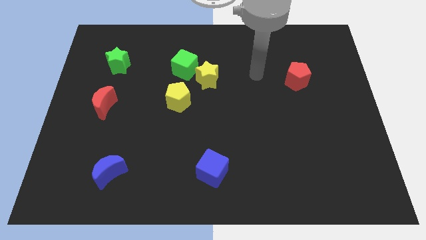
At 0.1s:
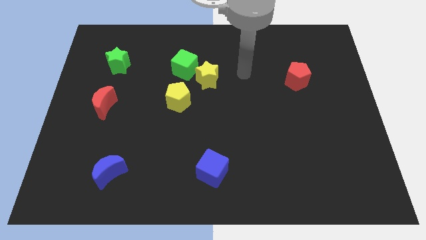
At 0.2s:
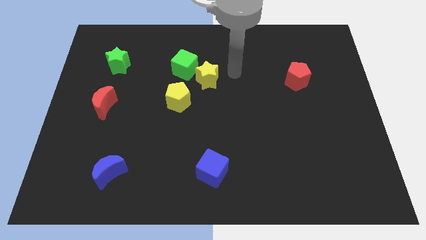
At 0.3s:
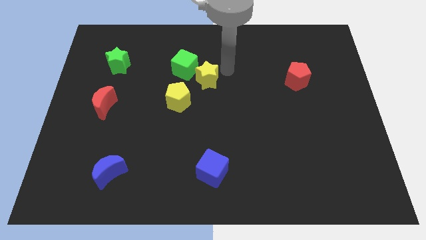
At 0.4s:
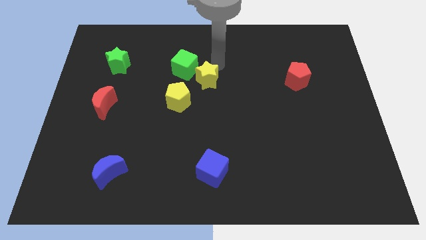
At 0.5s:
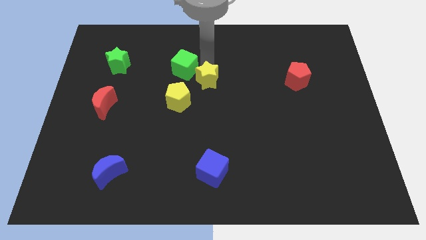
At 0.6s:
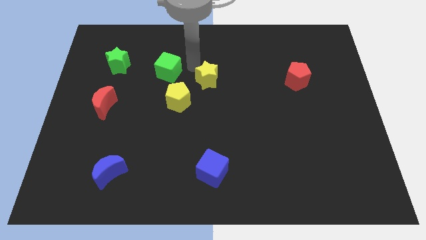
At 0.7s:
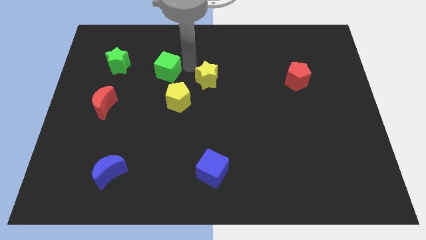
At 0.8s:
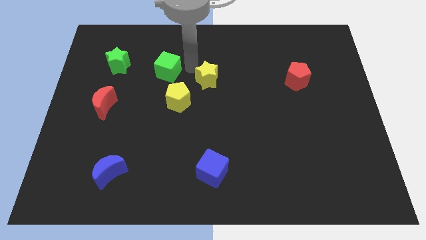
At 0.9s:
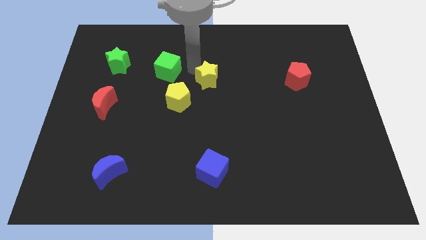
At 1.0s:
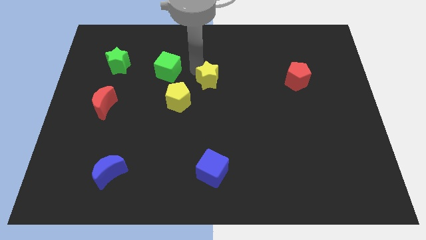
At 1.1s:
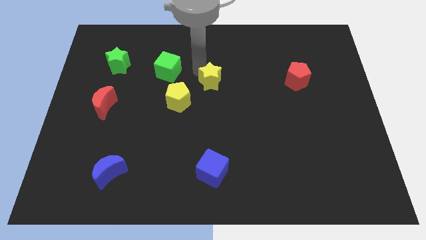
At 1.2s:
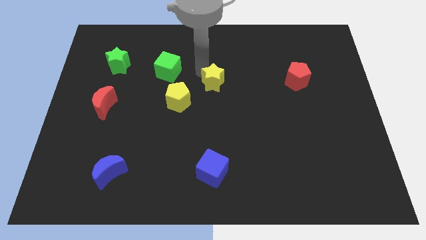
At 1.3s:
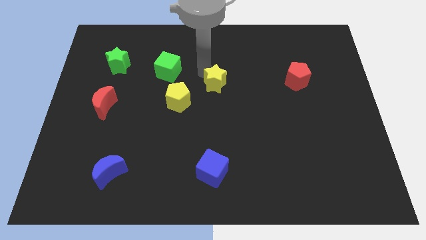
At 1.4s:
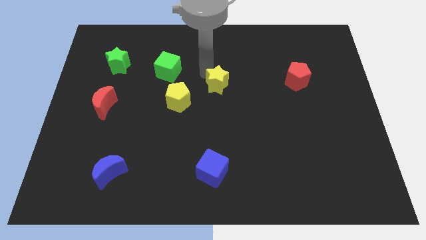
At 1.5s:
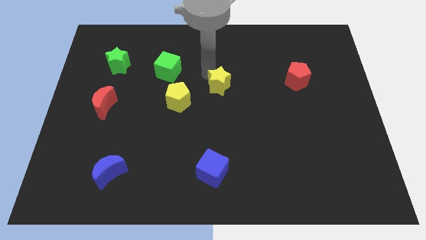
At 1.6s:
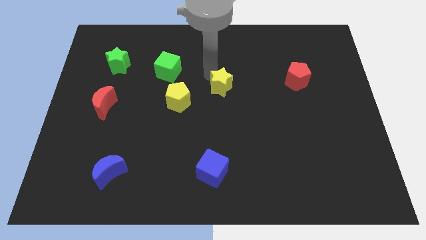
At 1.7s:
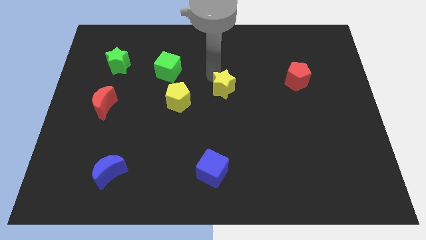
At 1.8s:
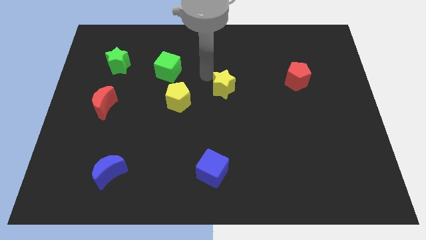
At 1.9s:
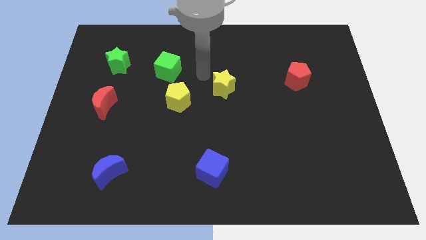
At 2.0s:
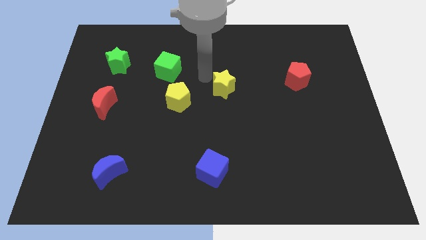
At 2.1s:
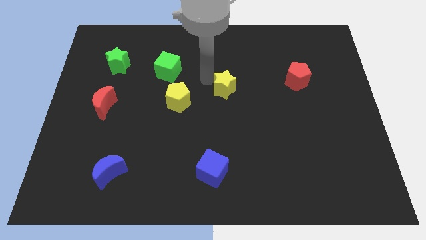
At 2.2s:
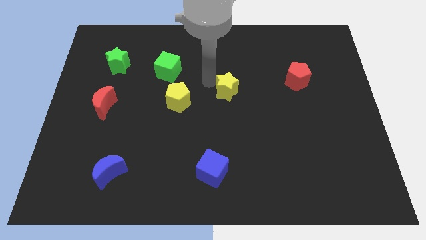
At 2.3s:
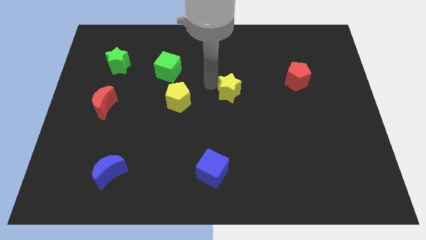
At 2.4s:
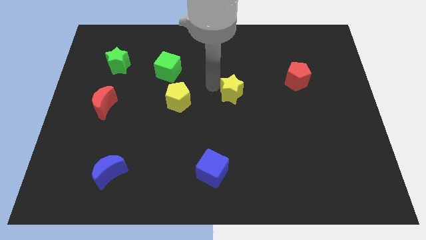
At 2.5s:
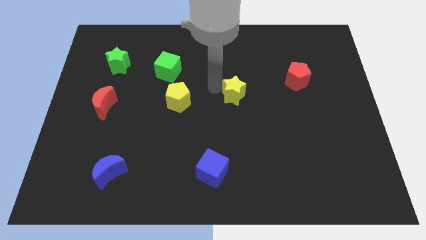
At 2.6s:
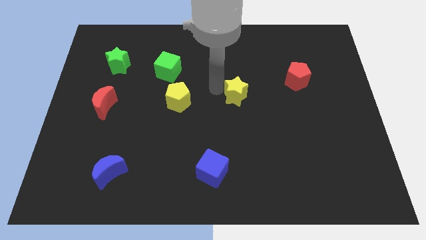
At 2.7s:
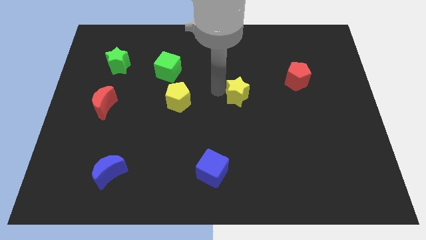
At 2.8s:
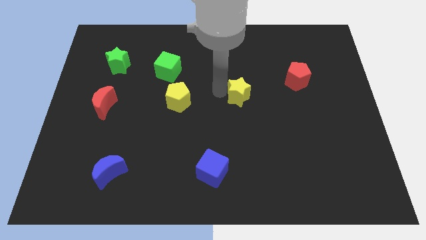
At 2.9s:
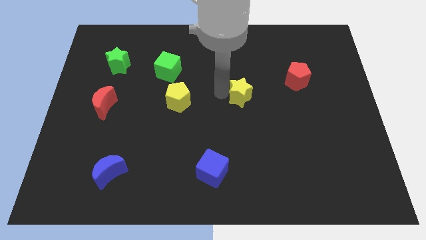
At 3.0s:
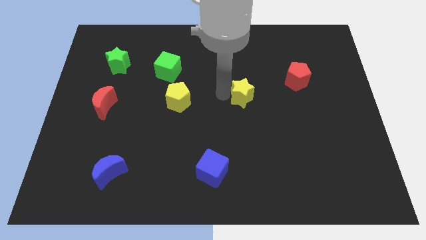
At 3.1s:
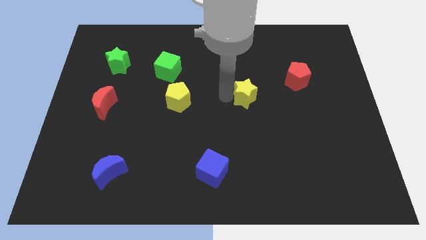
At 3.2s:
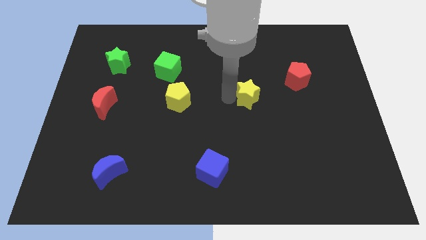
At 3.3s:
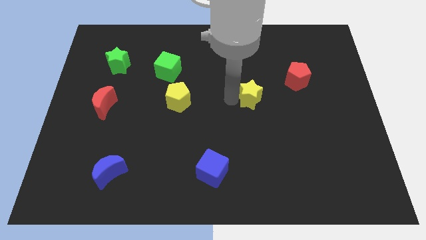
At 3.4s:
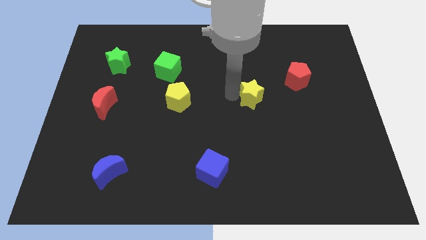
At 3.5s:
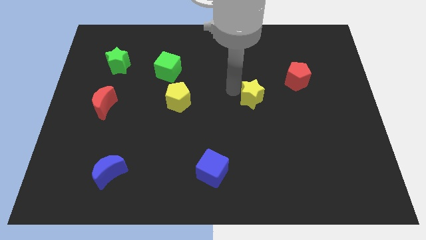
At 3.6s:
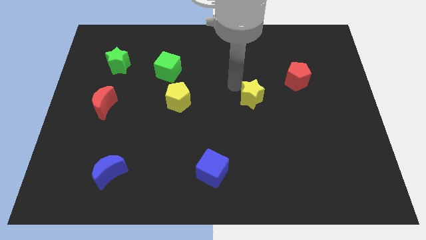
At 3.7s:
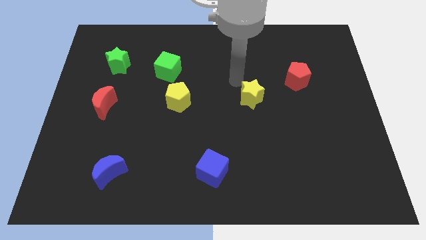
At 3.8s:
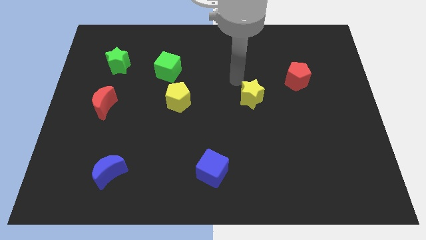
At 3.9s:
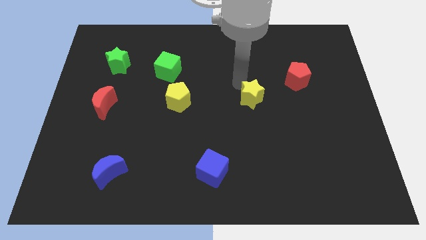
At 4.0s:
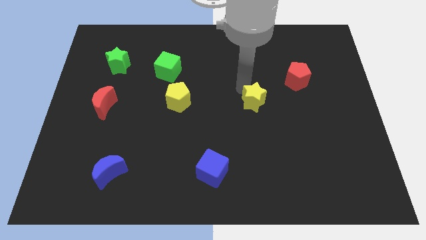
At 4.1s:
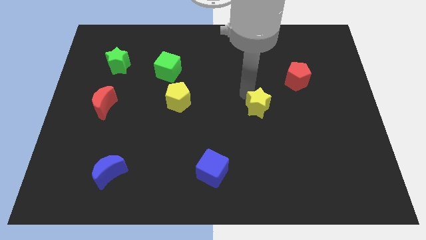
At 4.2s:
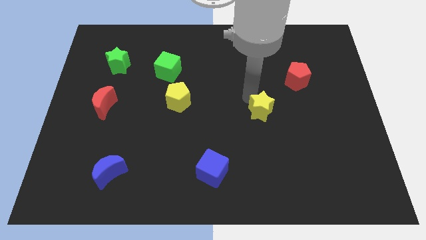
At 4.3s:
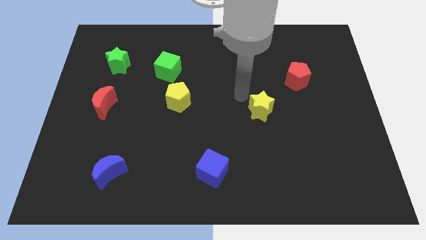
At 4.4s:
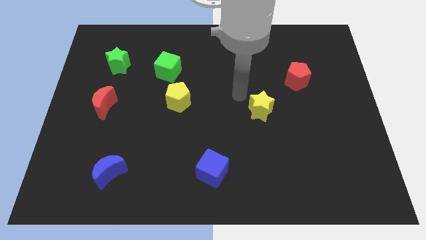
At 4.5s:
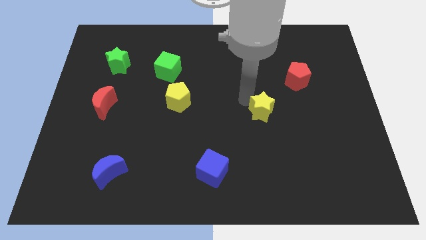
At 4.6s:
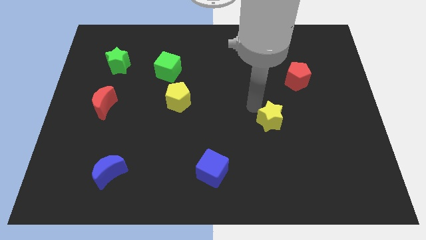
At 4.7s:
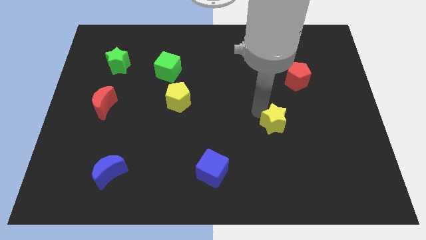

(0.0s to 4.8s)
move the yellow star downwards and right

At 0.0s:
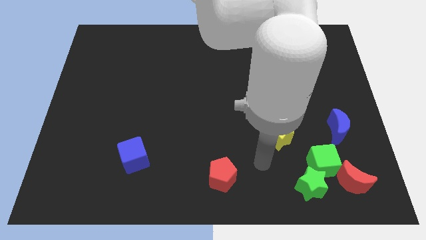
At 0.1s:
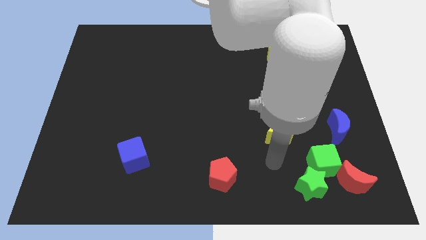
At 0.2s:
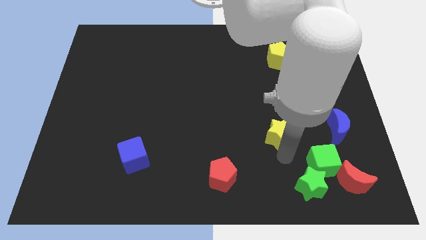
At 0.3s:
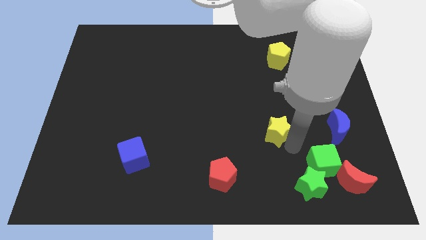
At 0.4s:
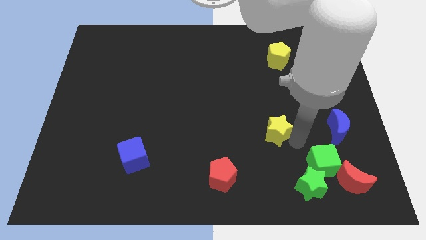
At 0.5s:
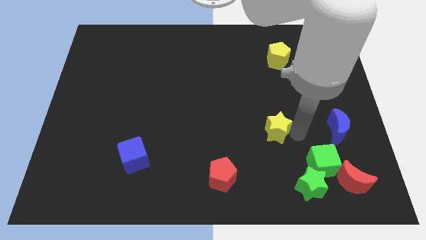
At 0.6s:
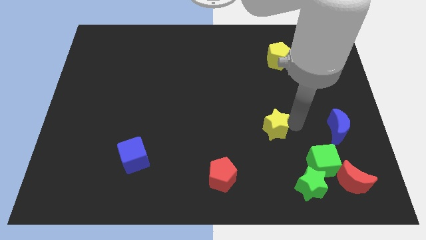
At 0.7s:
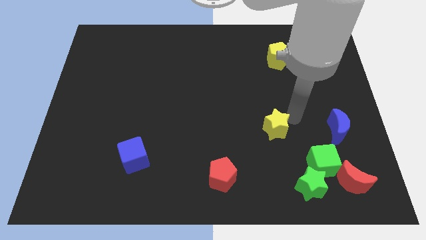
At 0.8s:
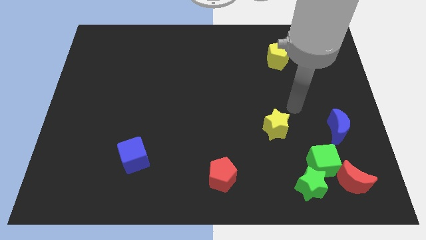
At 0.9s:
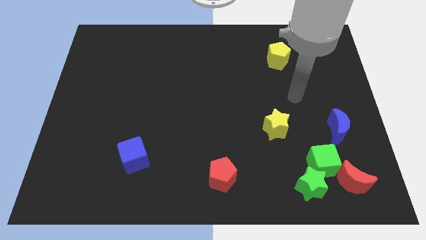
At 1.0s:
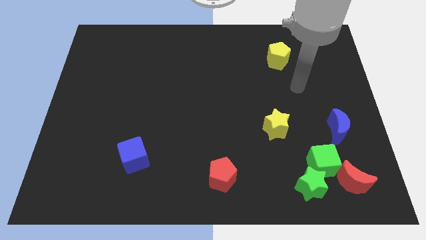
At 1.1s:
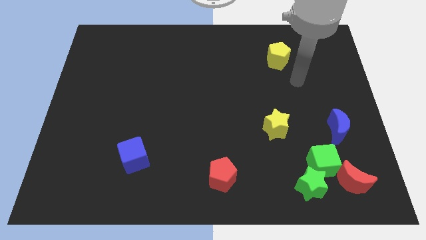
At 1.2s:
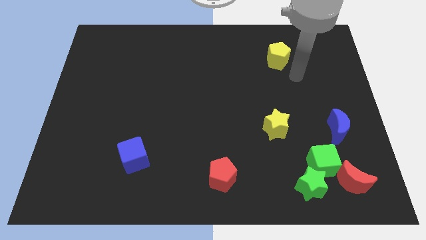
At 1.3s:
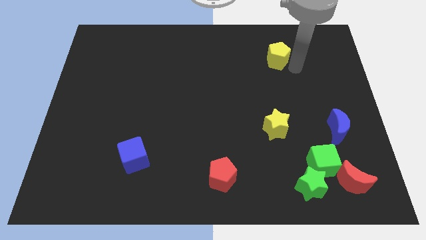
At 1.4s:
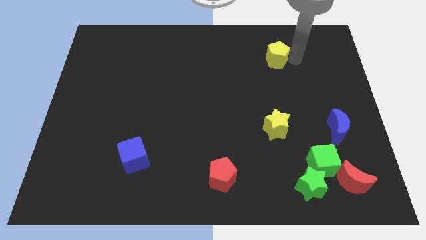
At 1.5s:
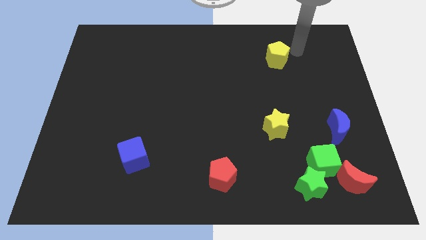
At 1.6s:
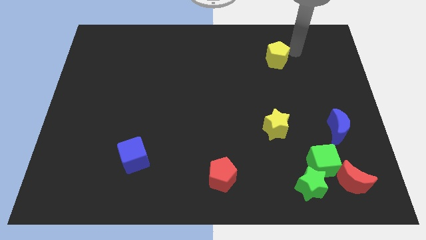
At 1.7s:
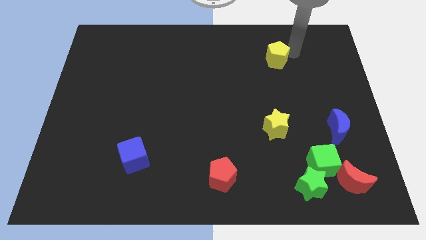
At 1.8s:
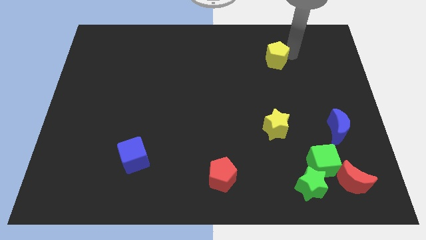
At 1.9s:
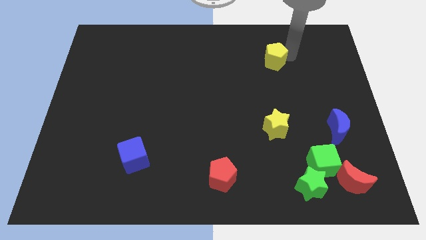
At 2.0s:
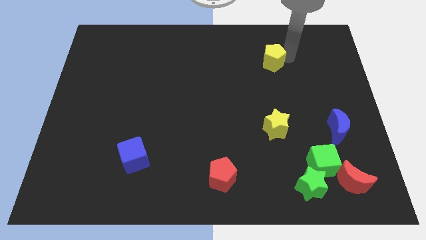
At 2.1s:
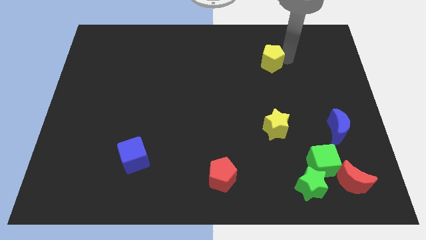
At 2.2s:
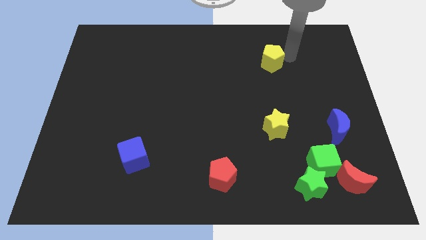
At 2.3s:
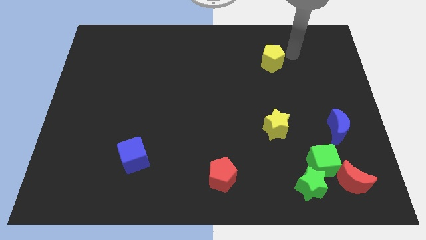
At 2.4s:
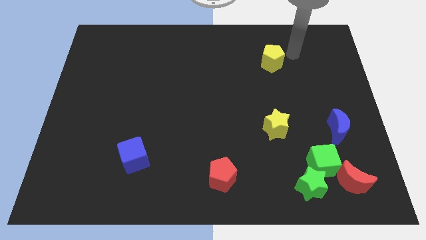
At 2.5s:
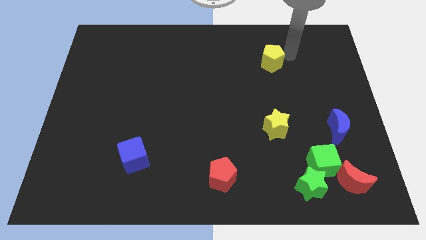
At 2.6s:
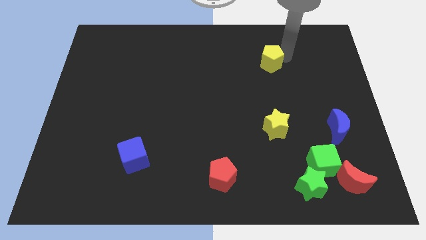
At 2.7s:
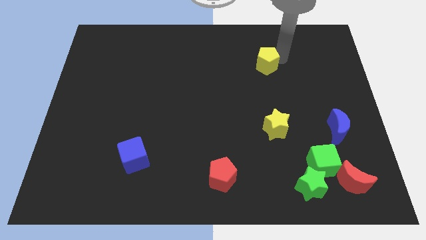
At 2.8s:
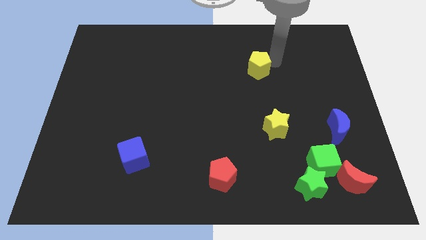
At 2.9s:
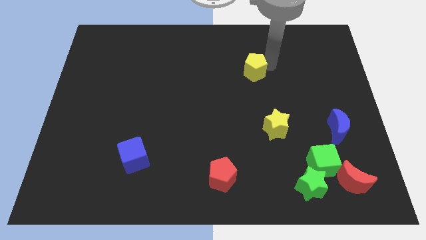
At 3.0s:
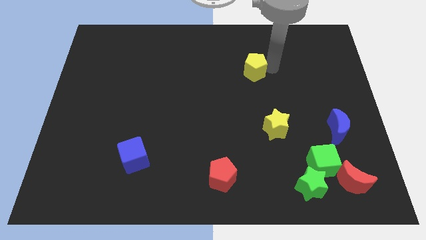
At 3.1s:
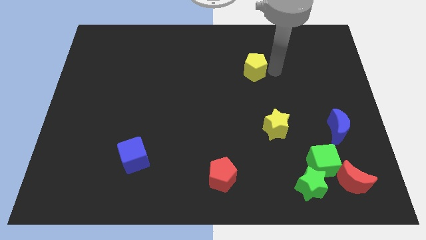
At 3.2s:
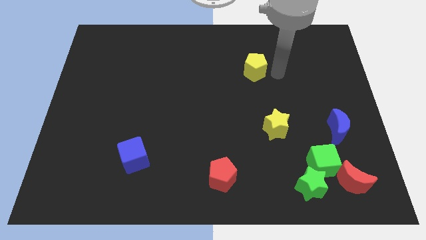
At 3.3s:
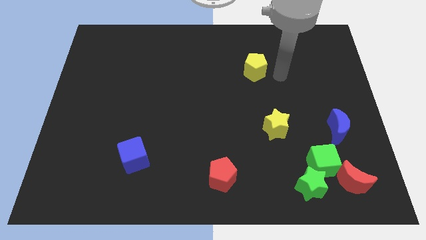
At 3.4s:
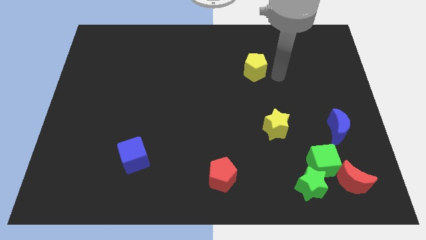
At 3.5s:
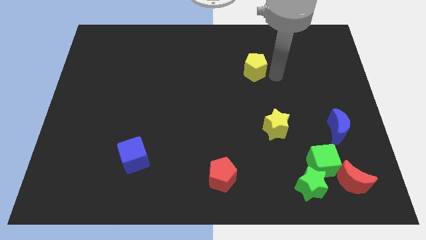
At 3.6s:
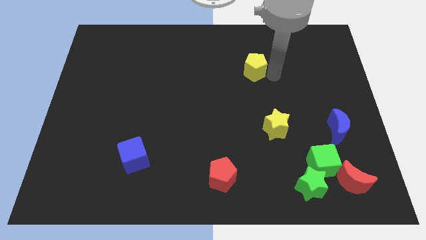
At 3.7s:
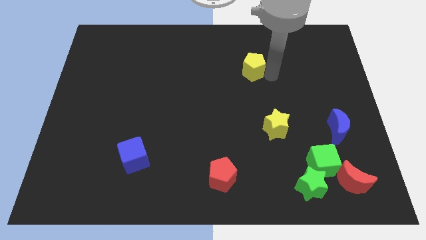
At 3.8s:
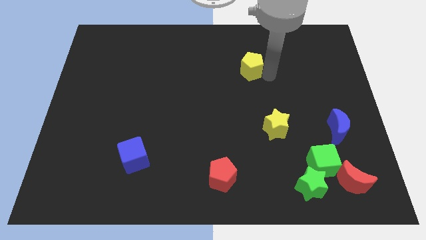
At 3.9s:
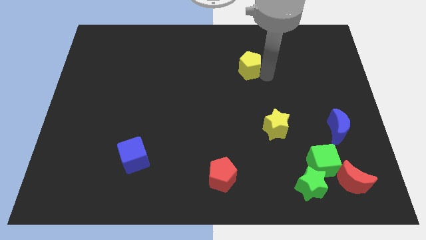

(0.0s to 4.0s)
slightly push the yellow pentagon to the left
